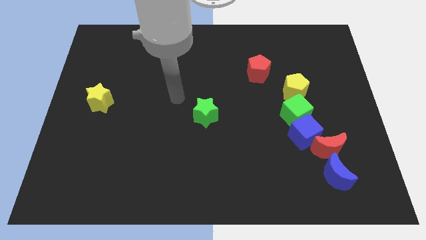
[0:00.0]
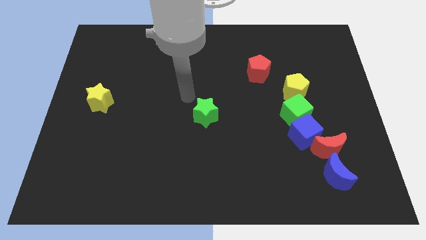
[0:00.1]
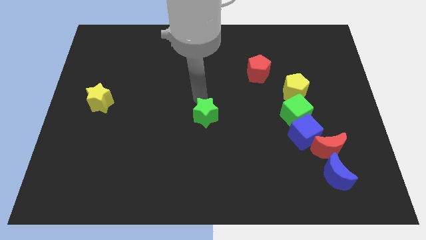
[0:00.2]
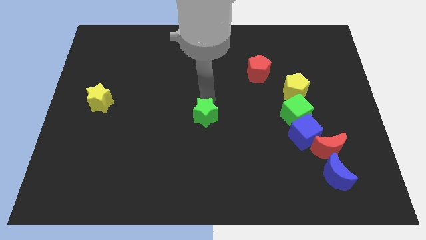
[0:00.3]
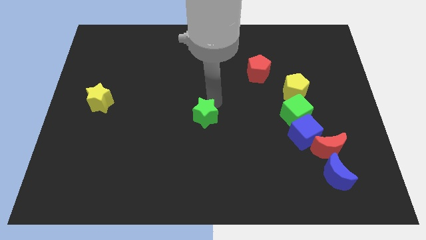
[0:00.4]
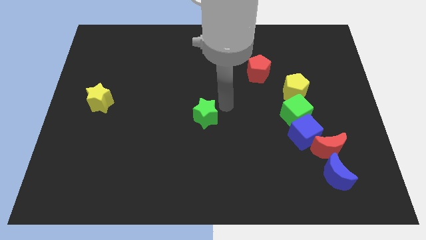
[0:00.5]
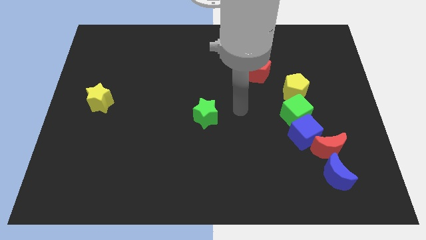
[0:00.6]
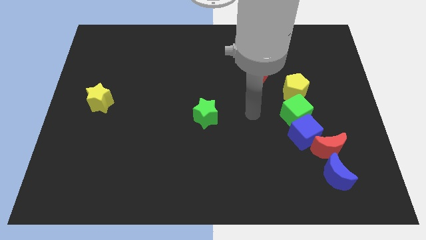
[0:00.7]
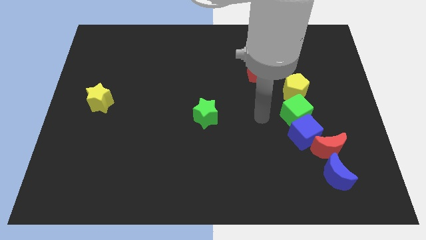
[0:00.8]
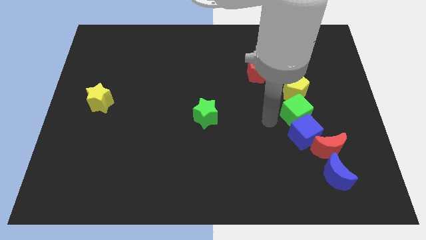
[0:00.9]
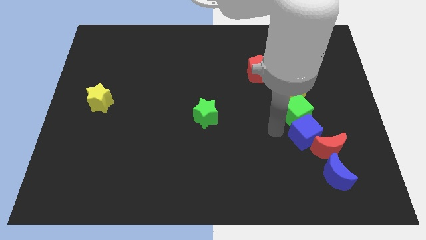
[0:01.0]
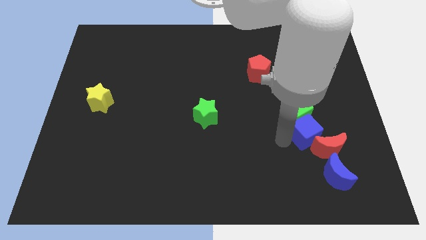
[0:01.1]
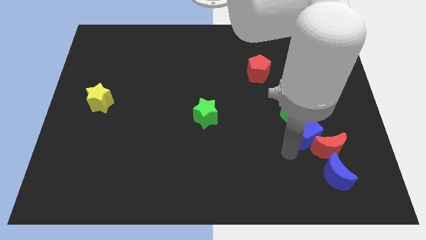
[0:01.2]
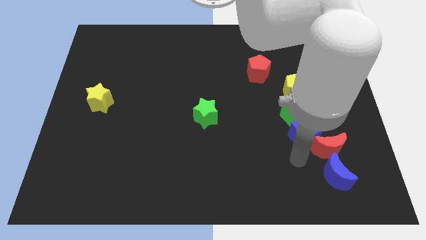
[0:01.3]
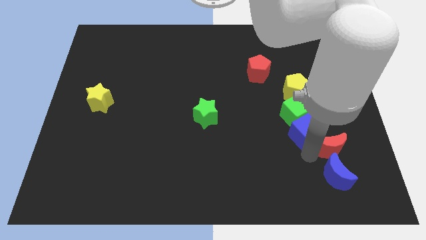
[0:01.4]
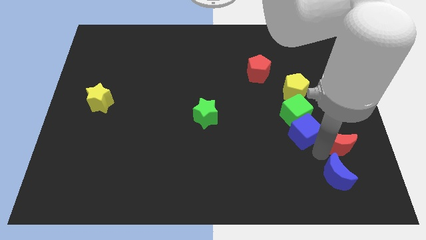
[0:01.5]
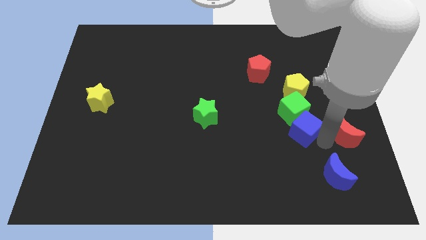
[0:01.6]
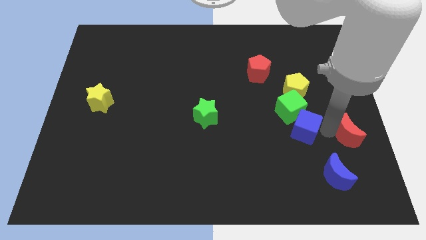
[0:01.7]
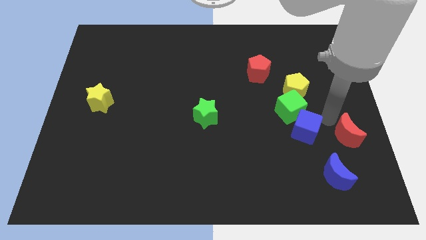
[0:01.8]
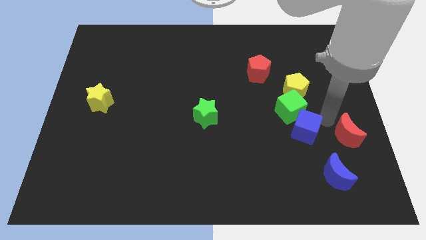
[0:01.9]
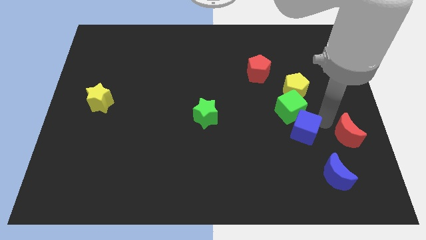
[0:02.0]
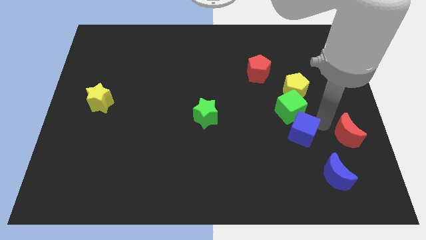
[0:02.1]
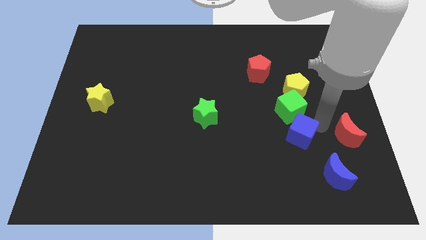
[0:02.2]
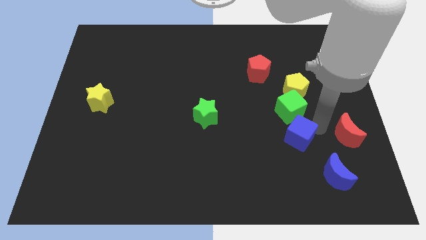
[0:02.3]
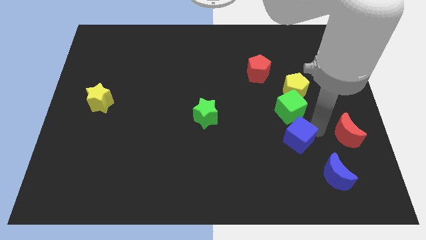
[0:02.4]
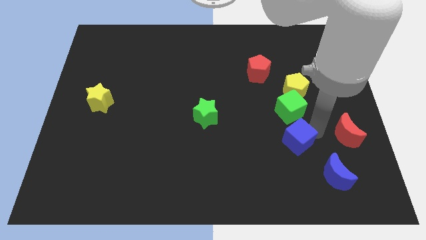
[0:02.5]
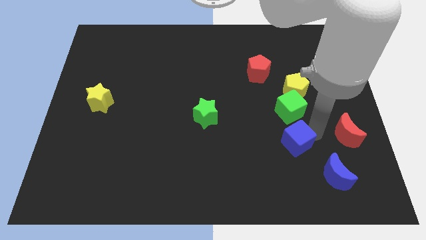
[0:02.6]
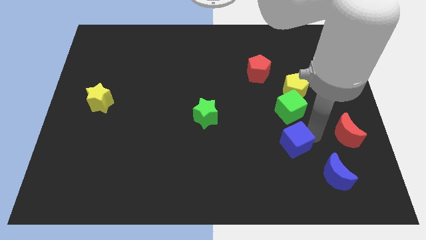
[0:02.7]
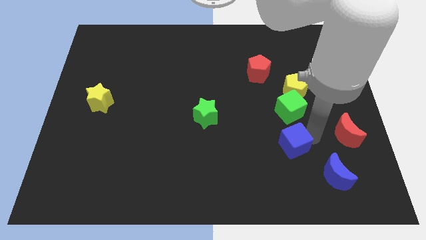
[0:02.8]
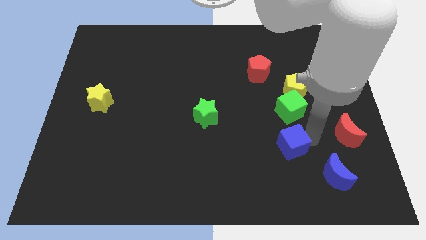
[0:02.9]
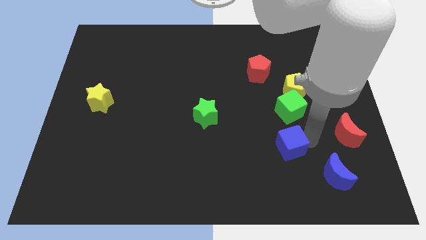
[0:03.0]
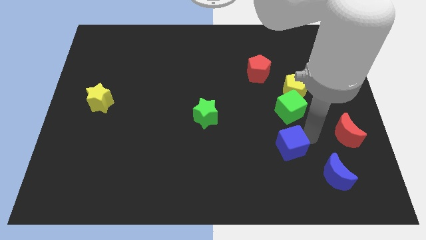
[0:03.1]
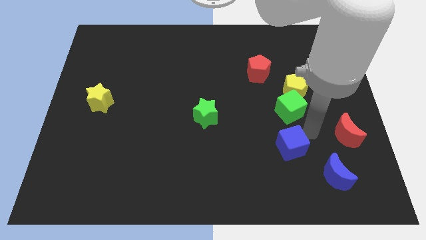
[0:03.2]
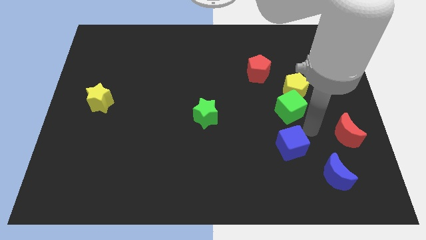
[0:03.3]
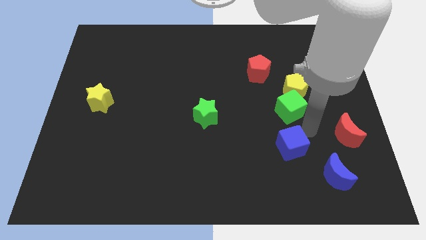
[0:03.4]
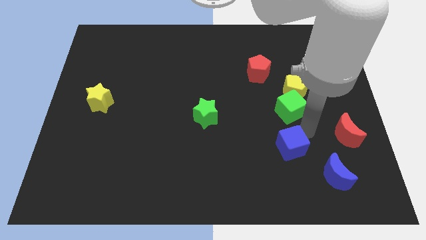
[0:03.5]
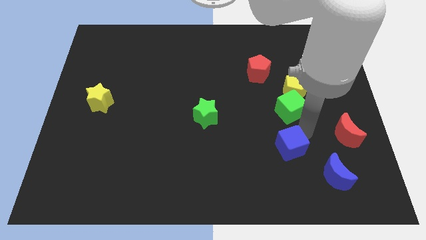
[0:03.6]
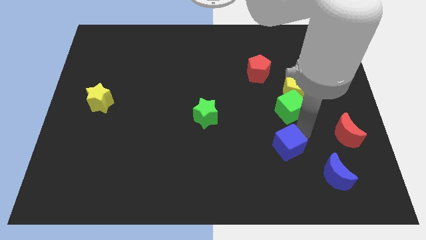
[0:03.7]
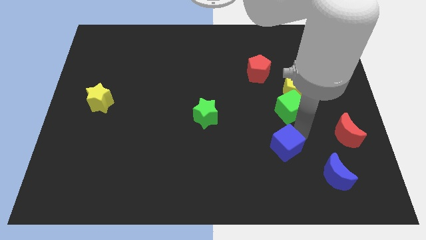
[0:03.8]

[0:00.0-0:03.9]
pull the blue cube apart from the green cube and red moon

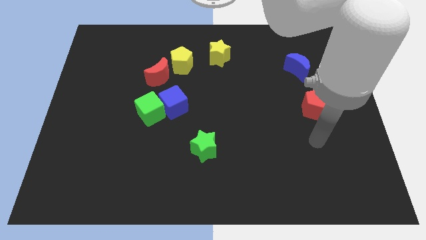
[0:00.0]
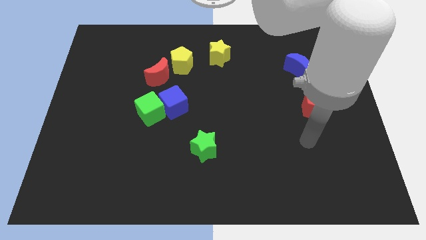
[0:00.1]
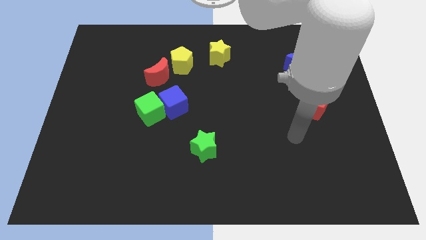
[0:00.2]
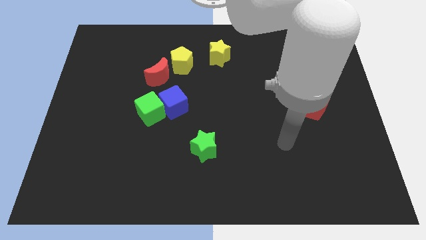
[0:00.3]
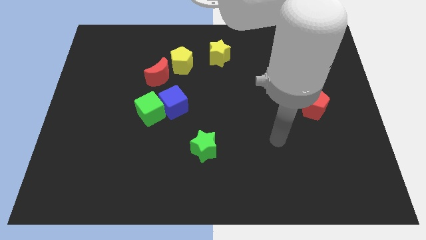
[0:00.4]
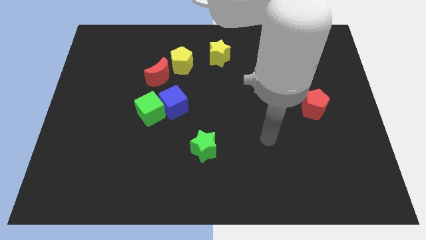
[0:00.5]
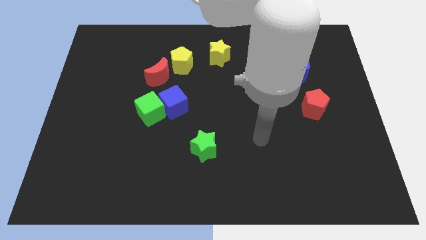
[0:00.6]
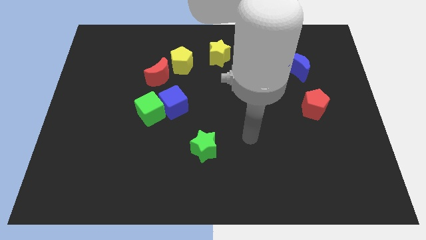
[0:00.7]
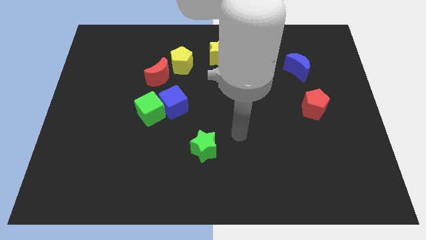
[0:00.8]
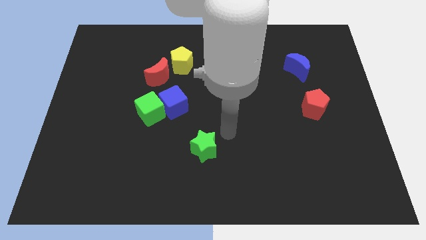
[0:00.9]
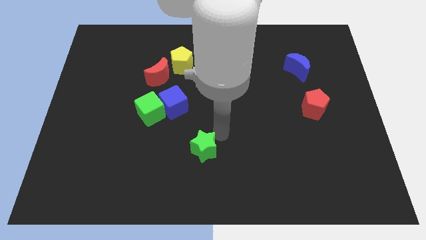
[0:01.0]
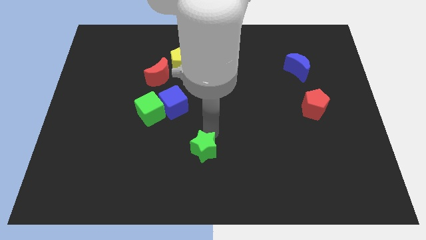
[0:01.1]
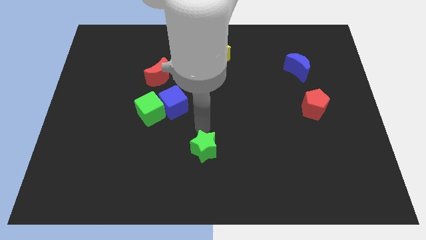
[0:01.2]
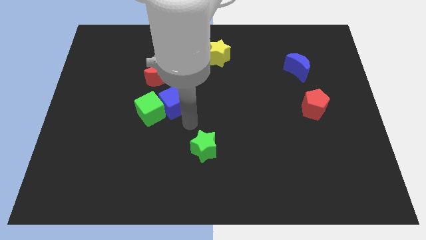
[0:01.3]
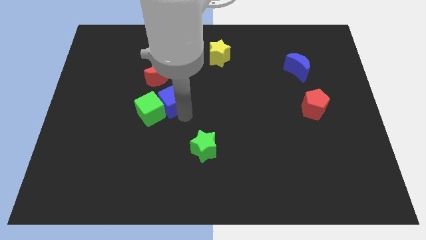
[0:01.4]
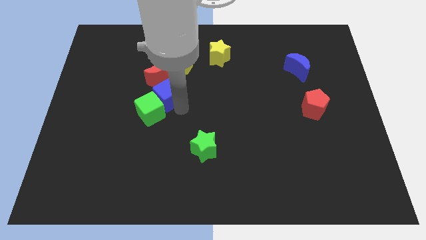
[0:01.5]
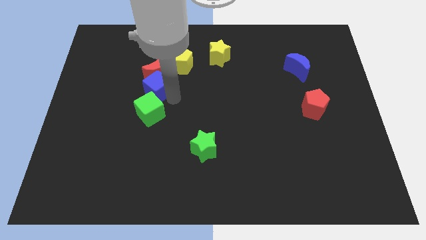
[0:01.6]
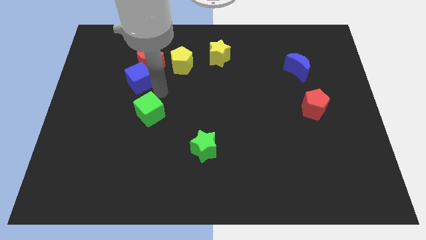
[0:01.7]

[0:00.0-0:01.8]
move the green cube away from the blue cube

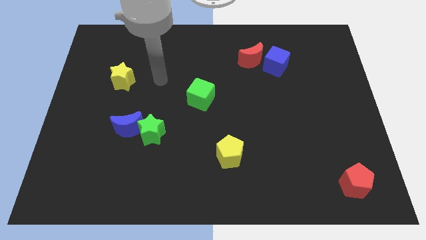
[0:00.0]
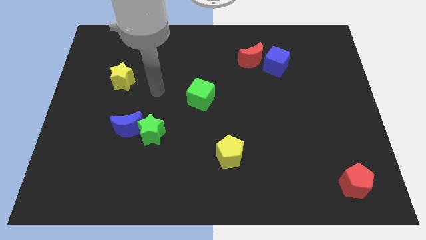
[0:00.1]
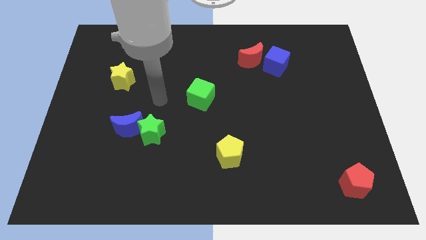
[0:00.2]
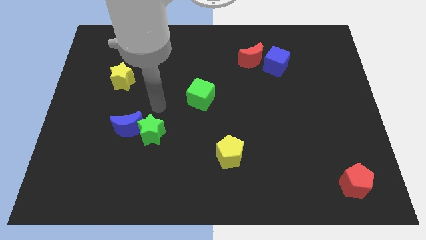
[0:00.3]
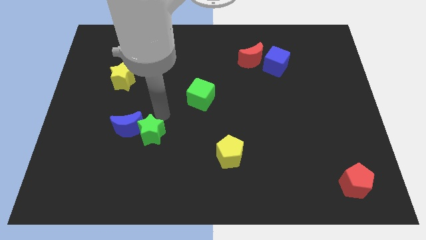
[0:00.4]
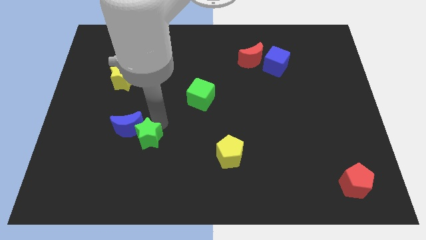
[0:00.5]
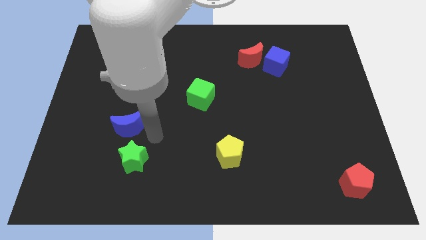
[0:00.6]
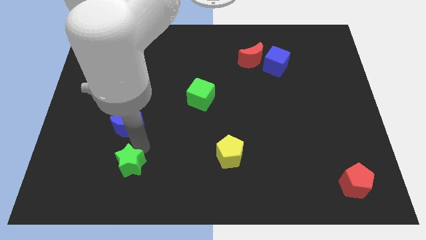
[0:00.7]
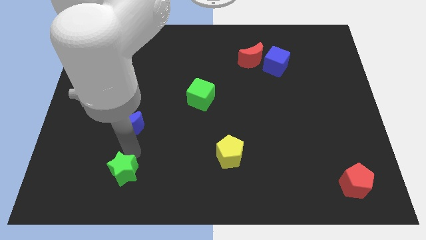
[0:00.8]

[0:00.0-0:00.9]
move the blue moon away from the green star

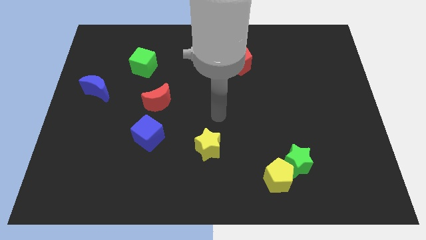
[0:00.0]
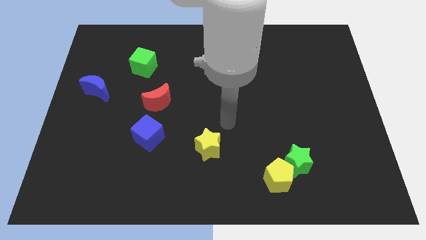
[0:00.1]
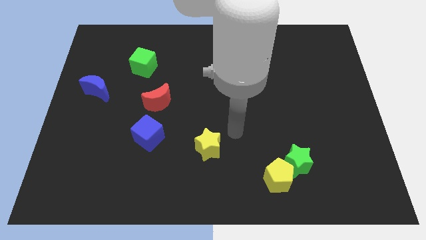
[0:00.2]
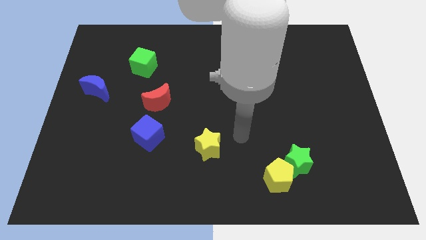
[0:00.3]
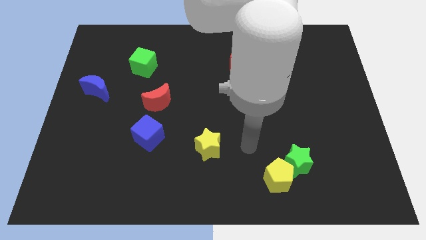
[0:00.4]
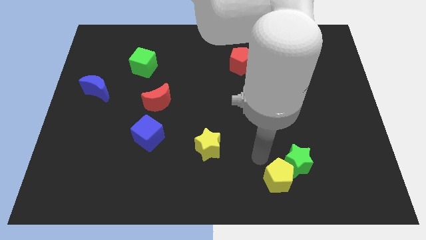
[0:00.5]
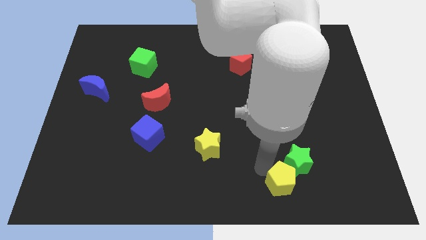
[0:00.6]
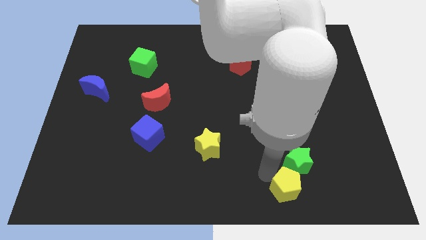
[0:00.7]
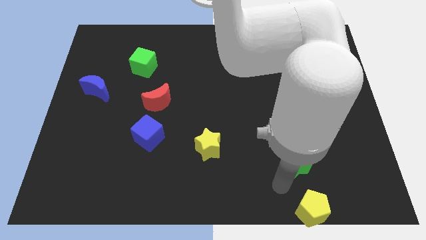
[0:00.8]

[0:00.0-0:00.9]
move the green star away from the yellow pentagon

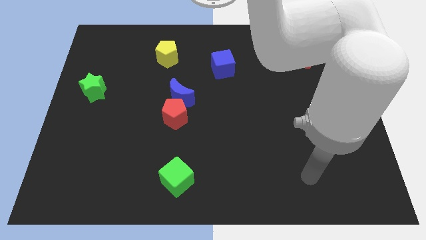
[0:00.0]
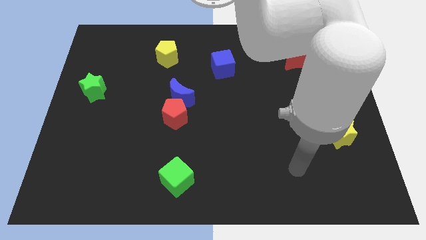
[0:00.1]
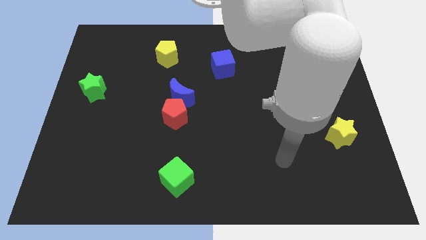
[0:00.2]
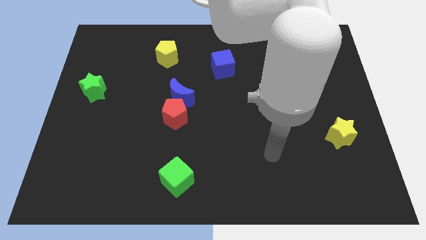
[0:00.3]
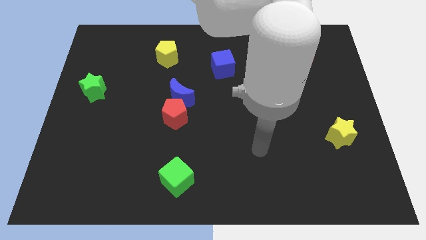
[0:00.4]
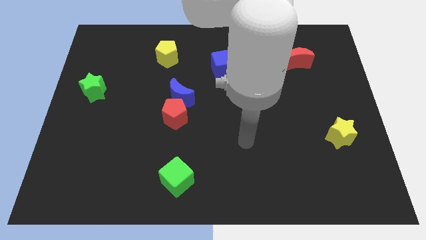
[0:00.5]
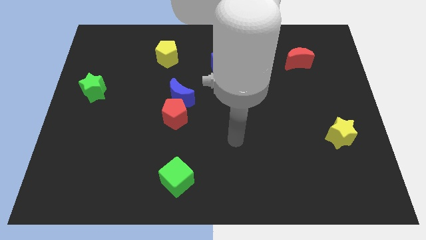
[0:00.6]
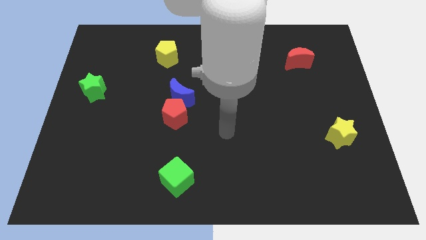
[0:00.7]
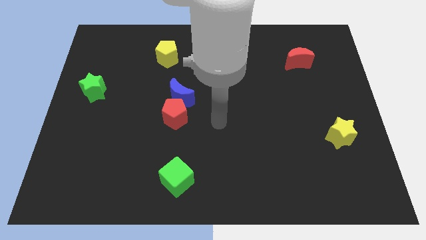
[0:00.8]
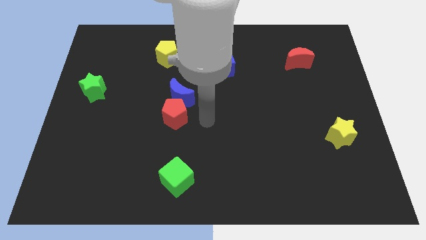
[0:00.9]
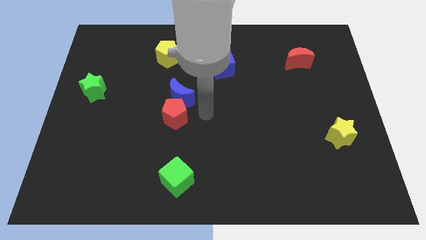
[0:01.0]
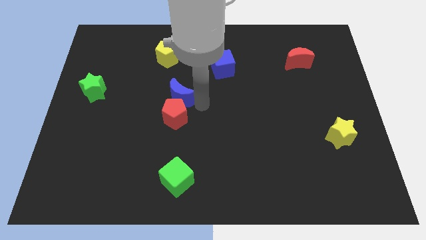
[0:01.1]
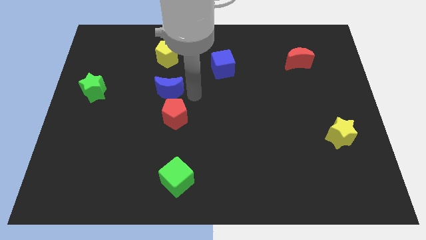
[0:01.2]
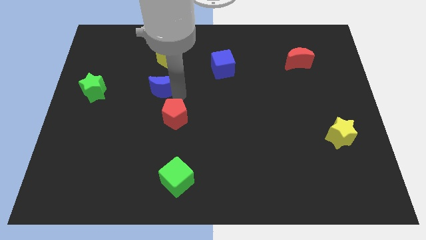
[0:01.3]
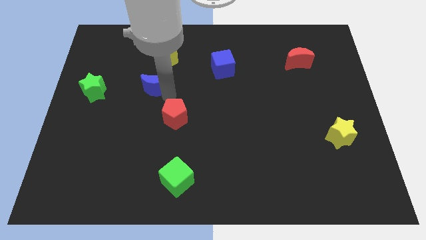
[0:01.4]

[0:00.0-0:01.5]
pull the red pentagon apart from the blue moon

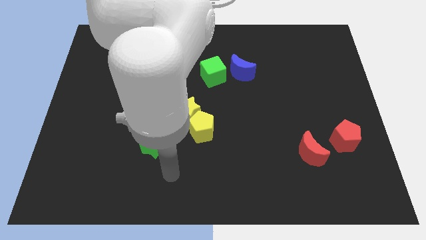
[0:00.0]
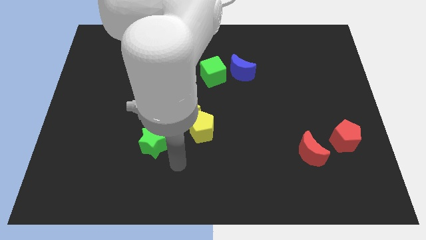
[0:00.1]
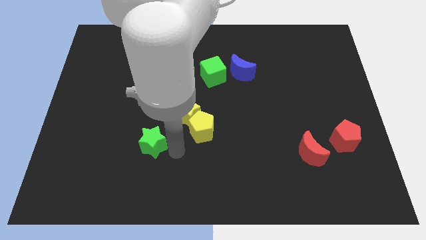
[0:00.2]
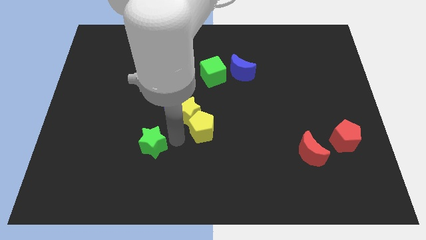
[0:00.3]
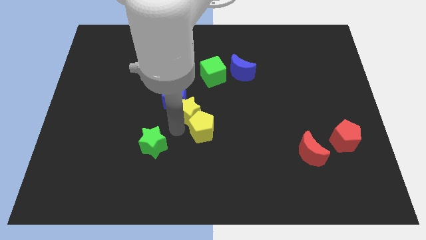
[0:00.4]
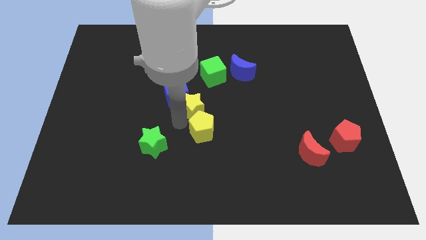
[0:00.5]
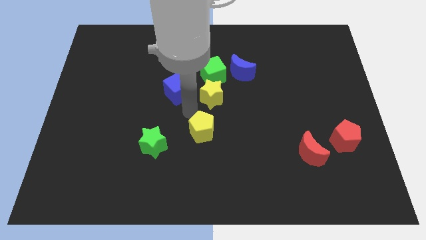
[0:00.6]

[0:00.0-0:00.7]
separate the yellow pentagon from the yellow star
